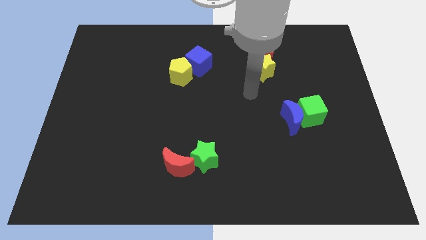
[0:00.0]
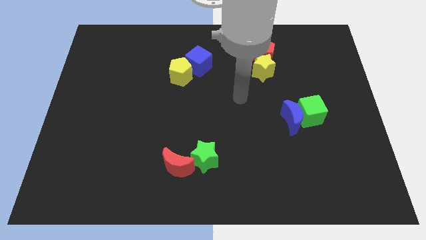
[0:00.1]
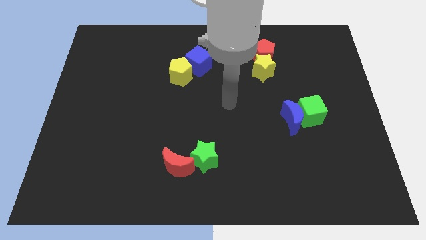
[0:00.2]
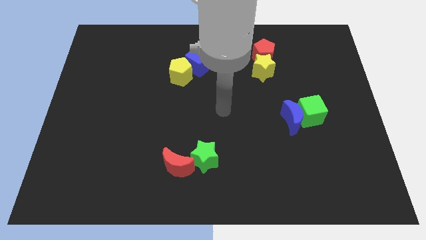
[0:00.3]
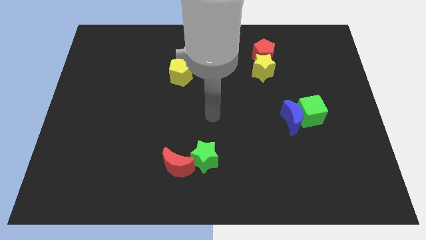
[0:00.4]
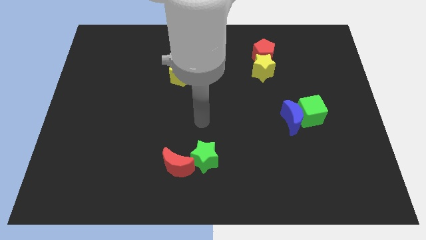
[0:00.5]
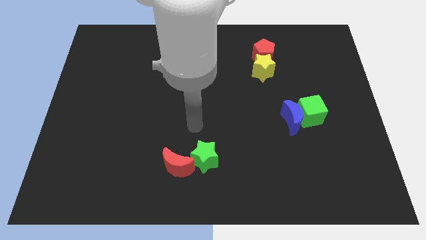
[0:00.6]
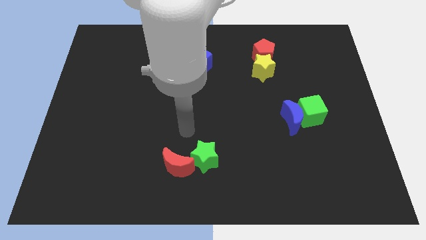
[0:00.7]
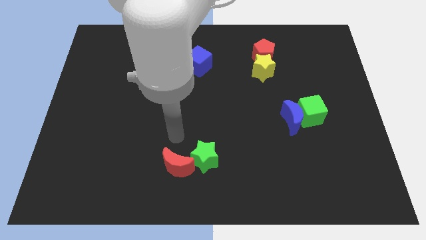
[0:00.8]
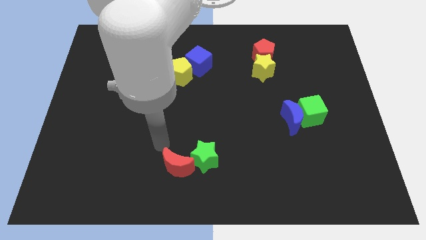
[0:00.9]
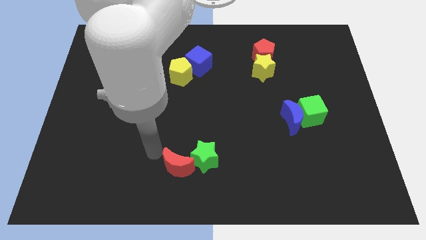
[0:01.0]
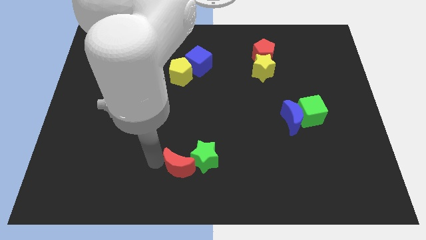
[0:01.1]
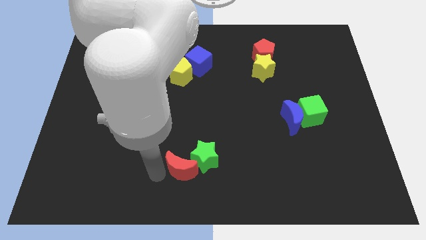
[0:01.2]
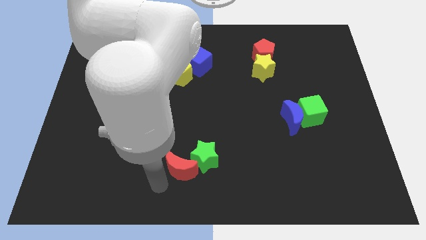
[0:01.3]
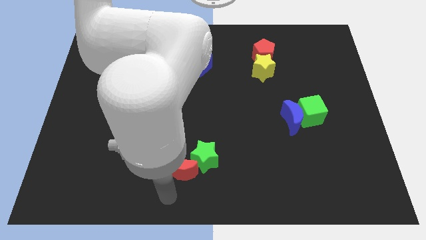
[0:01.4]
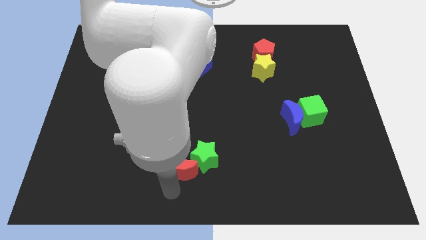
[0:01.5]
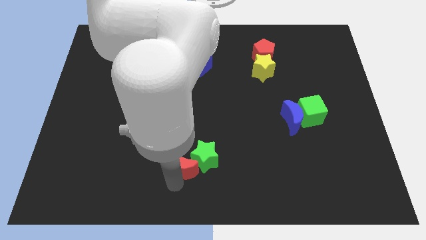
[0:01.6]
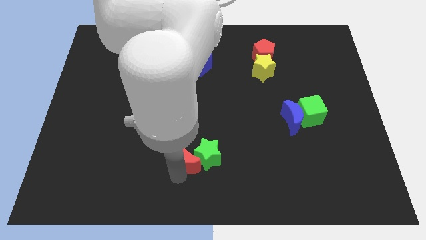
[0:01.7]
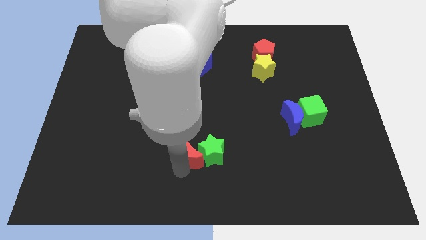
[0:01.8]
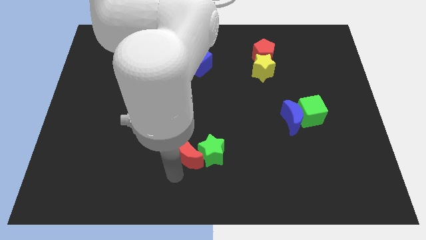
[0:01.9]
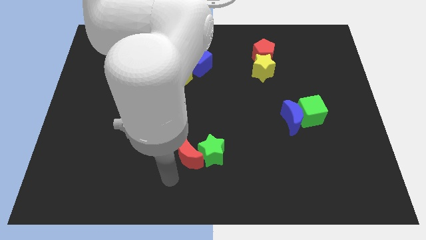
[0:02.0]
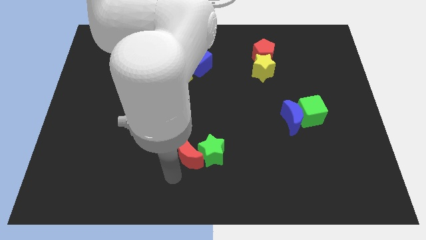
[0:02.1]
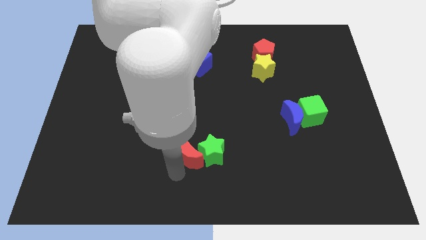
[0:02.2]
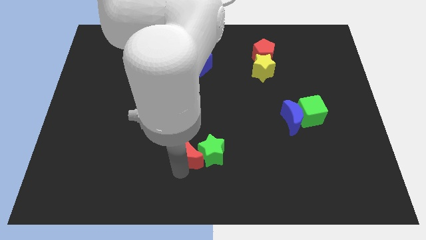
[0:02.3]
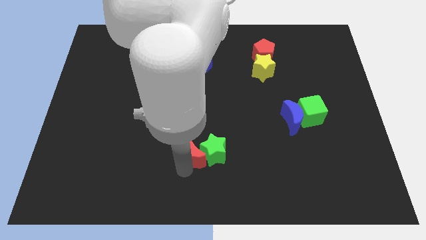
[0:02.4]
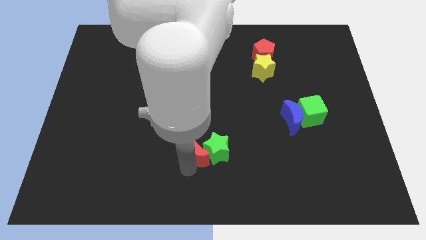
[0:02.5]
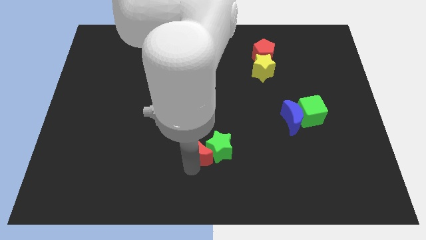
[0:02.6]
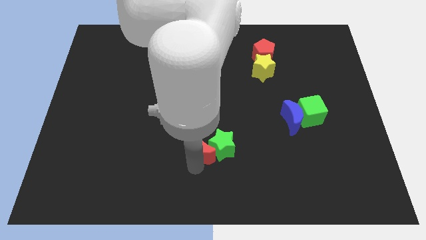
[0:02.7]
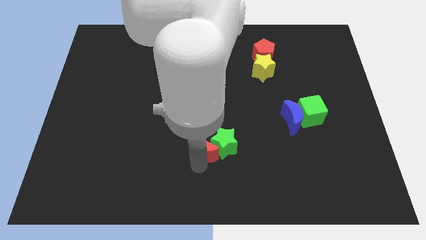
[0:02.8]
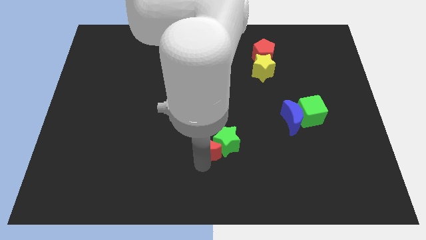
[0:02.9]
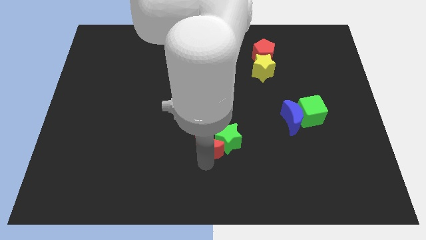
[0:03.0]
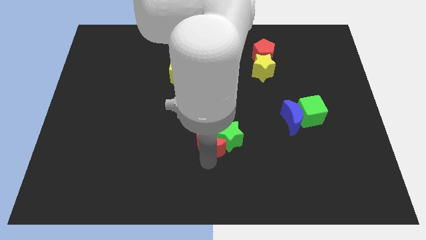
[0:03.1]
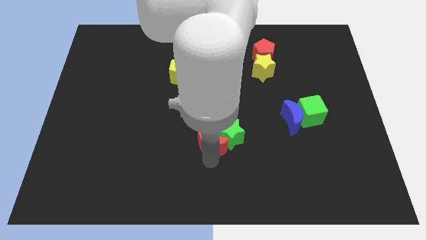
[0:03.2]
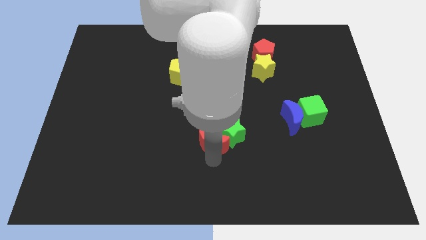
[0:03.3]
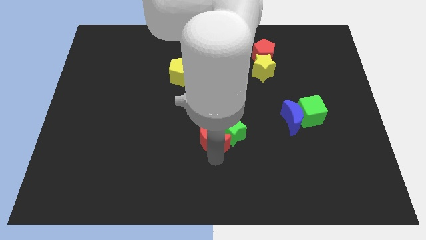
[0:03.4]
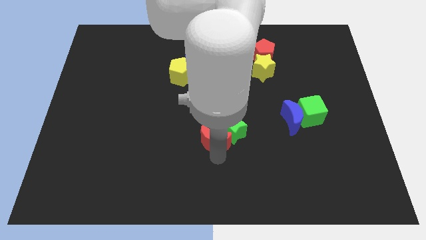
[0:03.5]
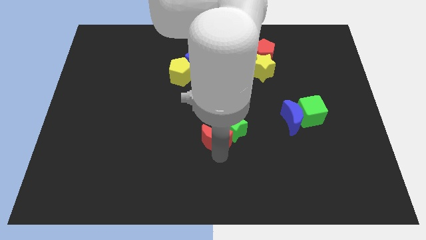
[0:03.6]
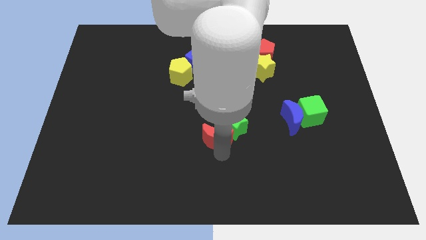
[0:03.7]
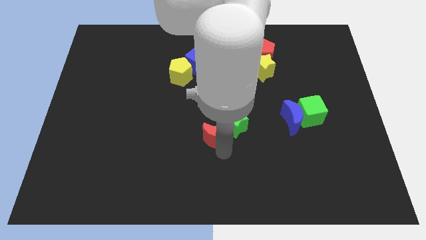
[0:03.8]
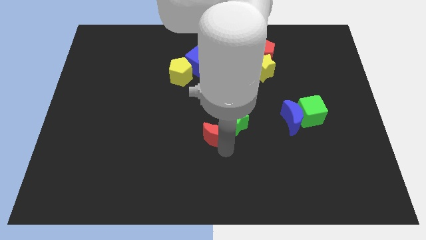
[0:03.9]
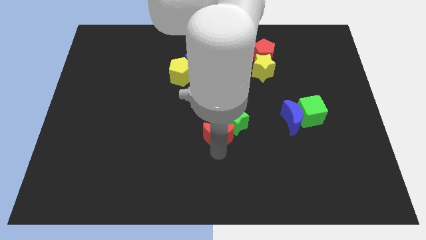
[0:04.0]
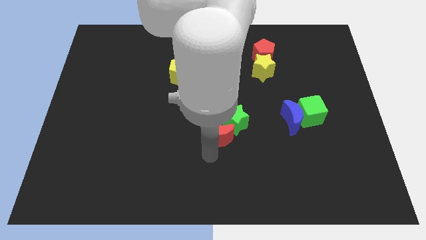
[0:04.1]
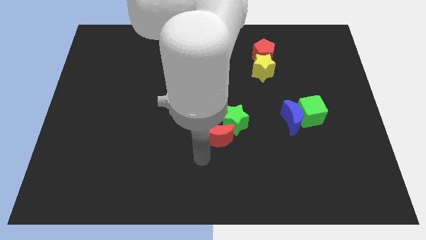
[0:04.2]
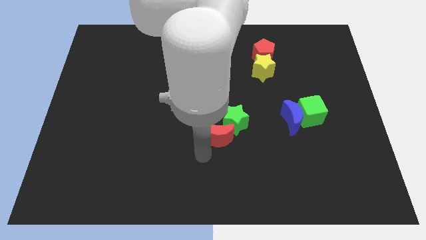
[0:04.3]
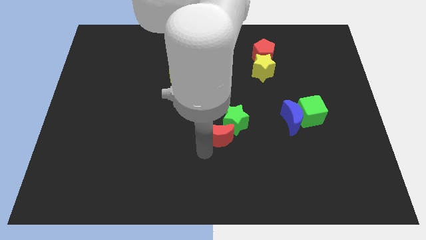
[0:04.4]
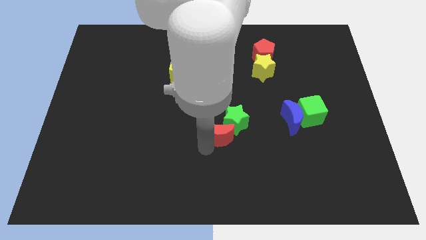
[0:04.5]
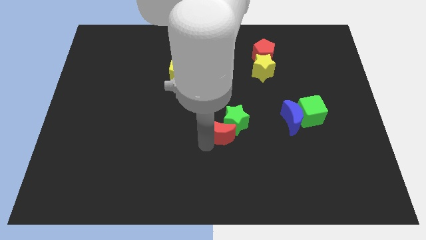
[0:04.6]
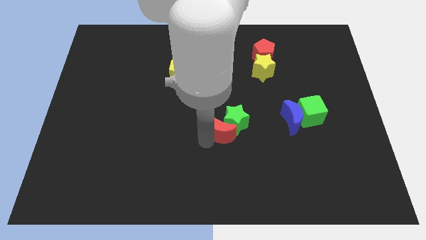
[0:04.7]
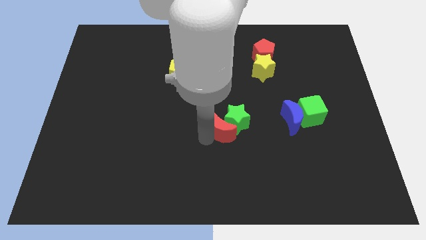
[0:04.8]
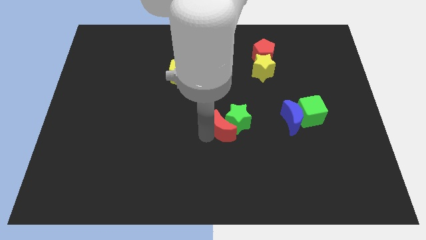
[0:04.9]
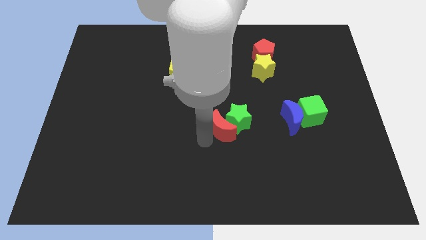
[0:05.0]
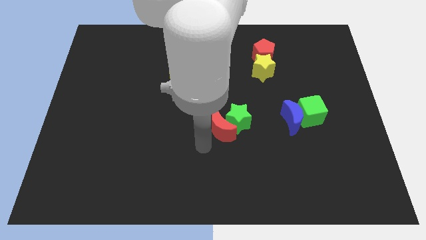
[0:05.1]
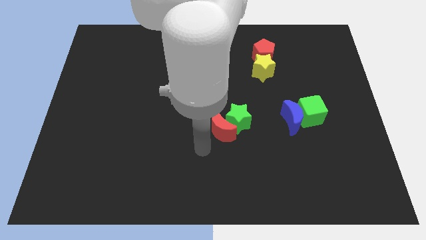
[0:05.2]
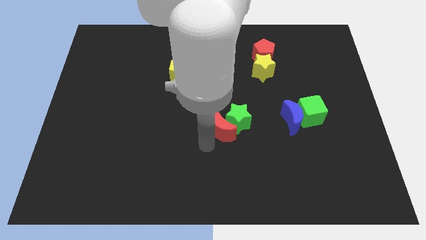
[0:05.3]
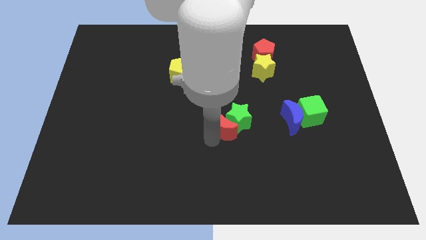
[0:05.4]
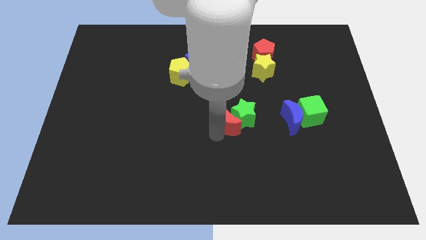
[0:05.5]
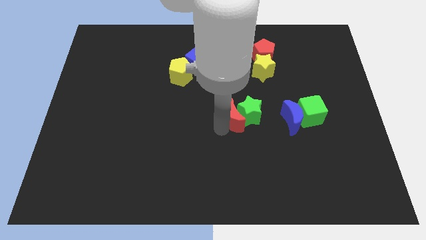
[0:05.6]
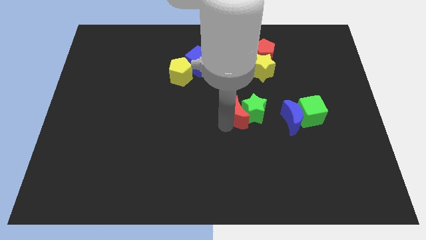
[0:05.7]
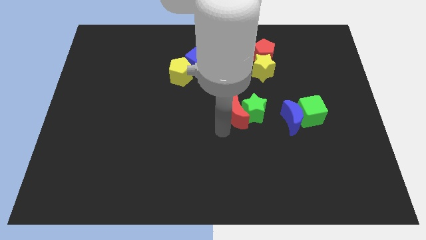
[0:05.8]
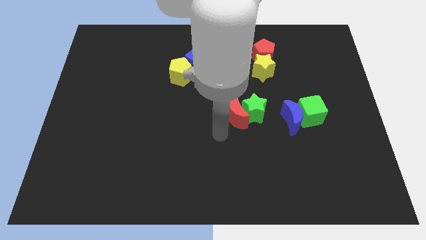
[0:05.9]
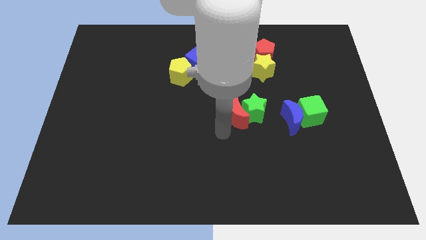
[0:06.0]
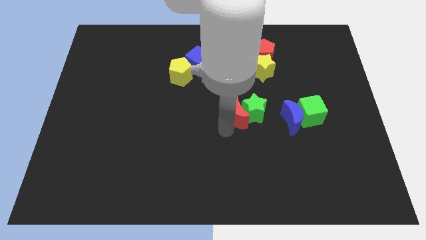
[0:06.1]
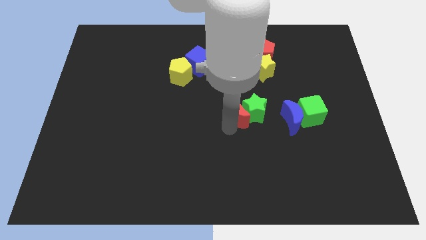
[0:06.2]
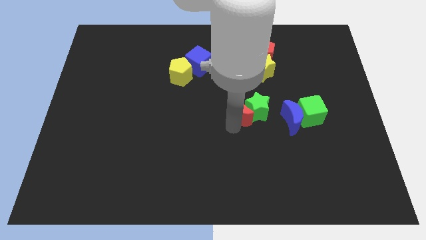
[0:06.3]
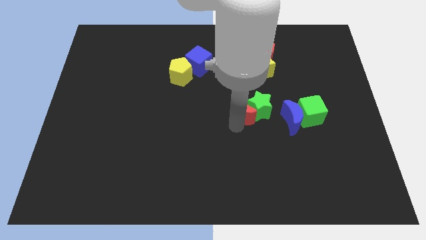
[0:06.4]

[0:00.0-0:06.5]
slide the red moon diagonally up and to the right

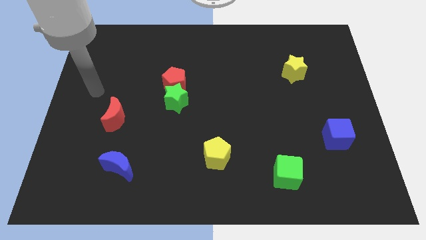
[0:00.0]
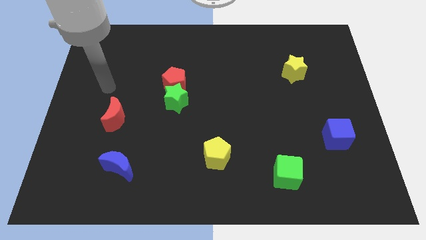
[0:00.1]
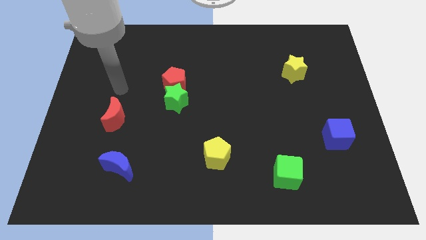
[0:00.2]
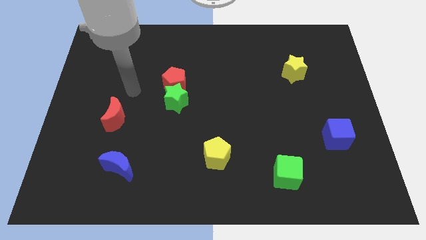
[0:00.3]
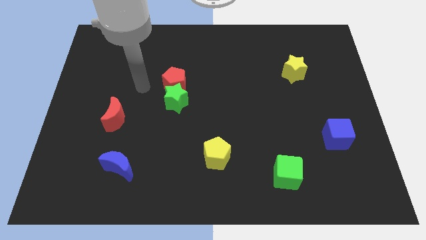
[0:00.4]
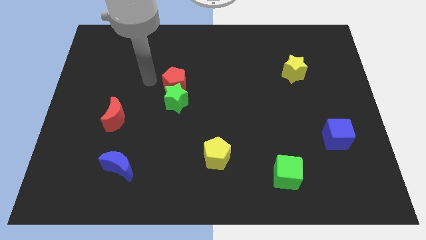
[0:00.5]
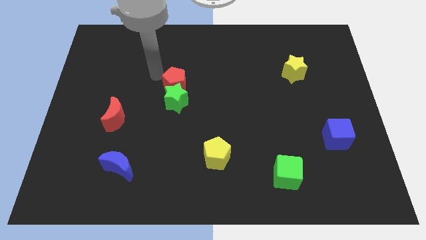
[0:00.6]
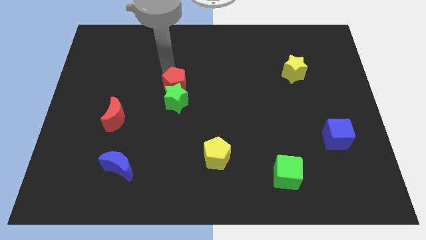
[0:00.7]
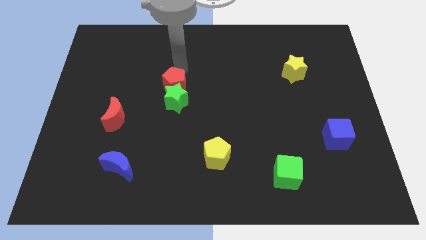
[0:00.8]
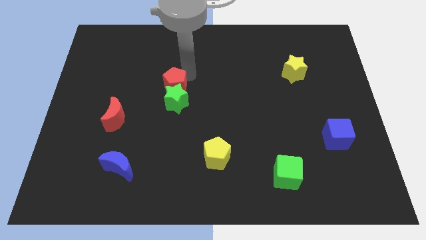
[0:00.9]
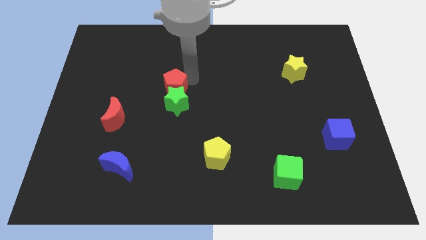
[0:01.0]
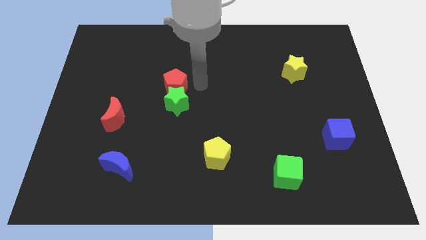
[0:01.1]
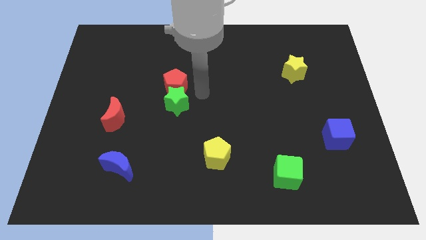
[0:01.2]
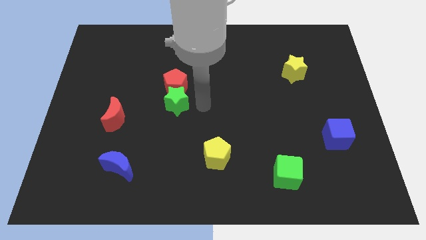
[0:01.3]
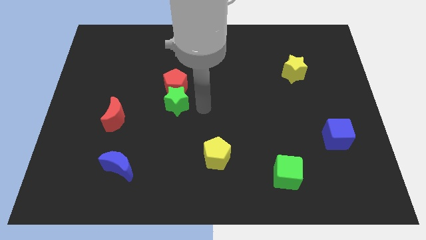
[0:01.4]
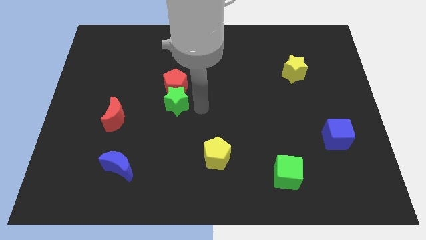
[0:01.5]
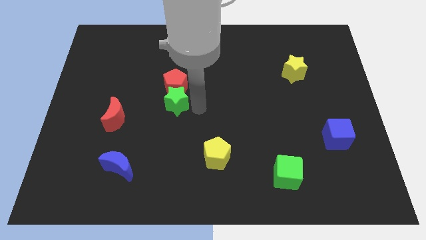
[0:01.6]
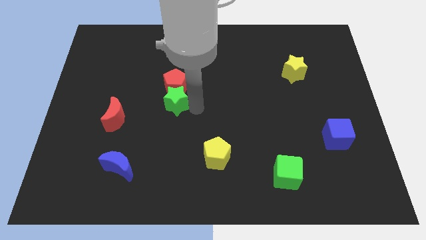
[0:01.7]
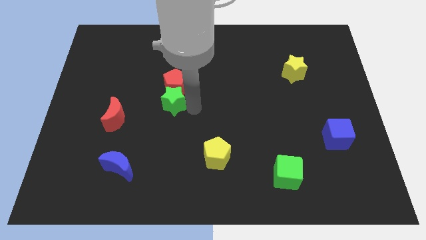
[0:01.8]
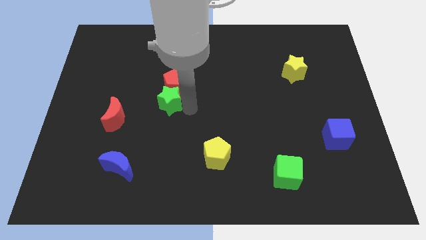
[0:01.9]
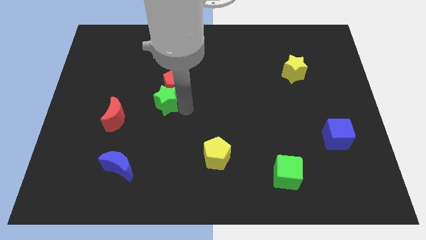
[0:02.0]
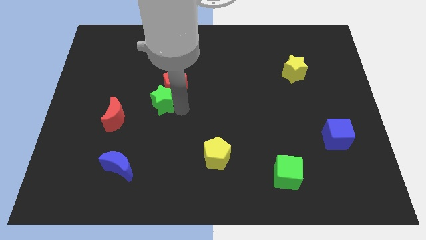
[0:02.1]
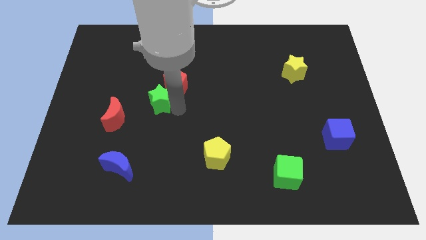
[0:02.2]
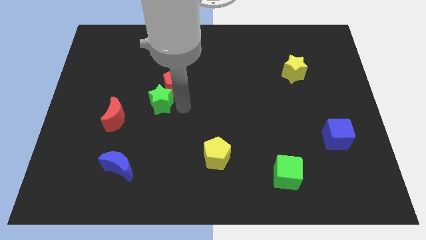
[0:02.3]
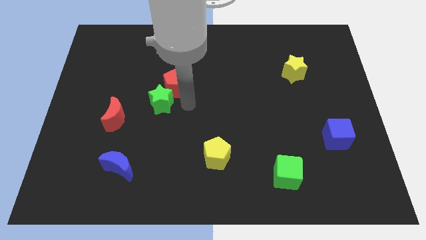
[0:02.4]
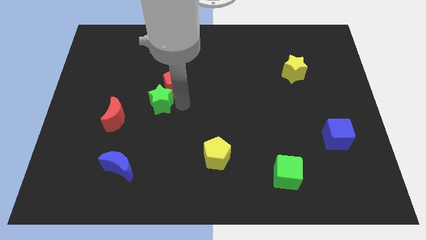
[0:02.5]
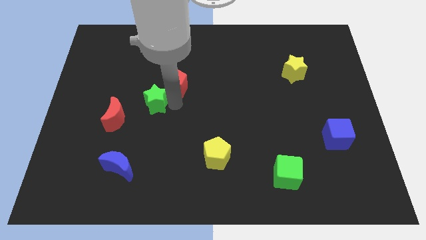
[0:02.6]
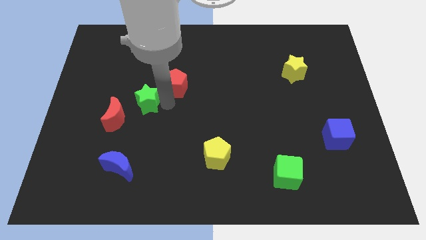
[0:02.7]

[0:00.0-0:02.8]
slightly slide the green star to the left
